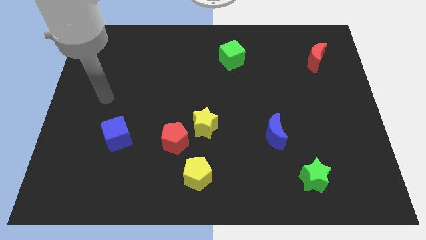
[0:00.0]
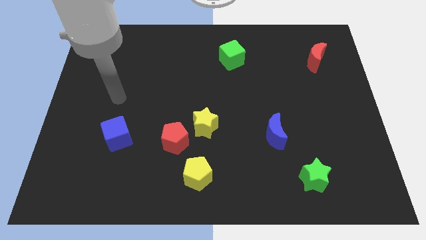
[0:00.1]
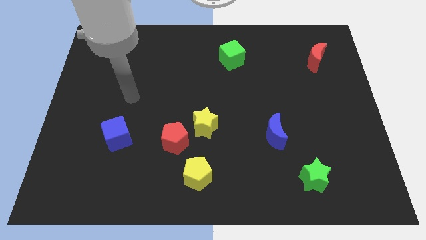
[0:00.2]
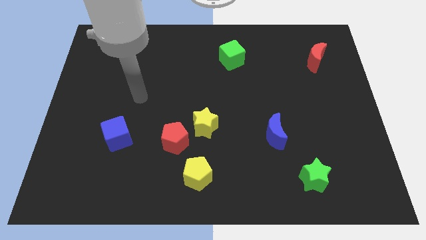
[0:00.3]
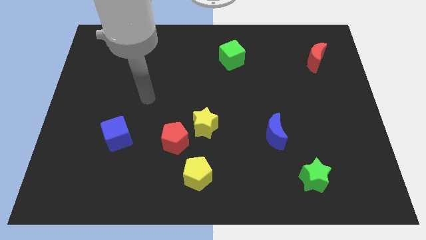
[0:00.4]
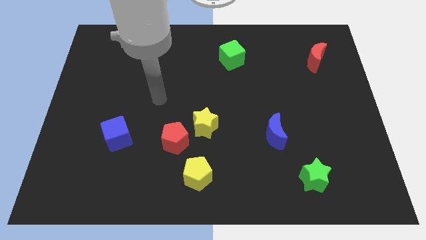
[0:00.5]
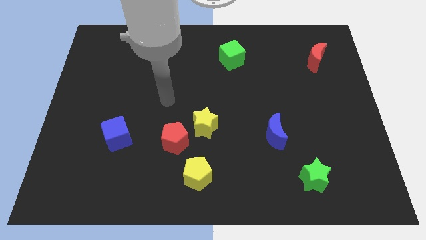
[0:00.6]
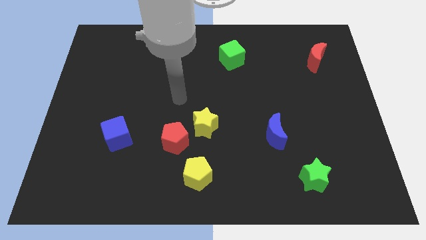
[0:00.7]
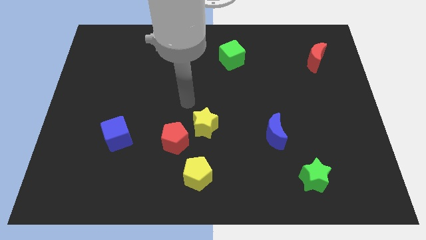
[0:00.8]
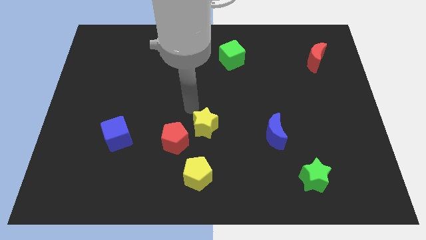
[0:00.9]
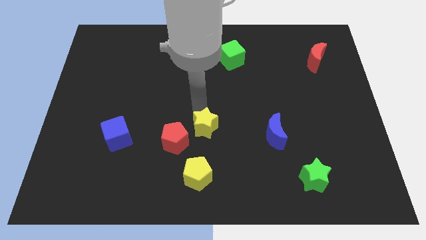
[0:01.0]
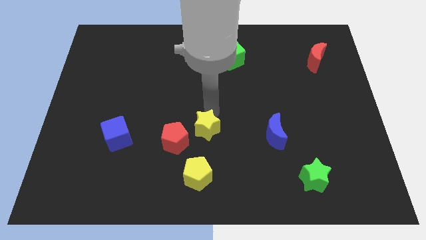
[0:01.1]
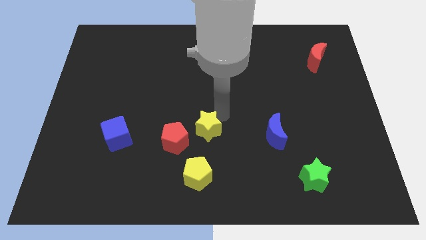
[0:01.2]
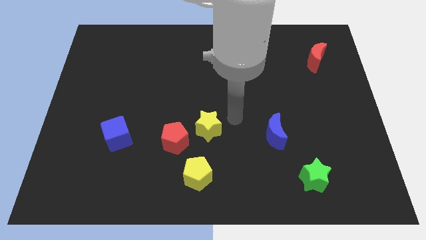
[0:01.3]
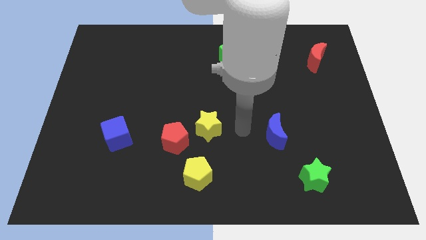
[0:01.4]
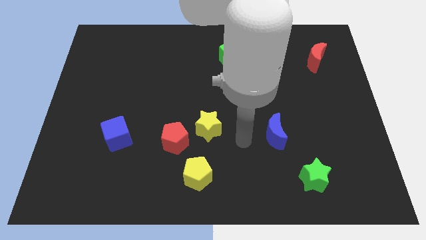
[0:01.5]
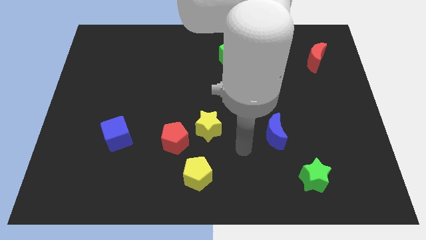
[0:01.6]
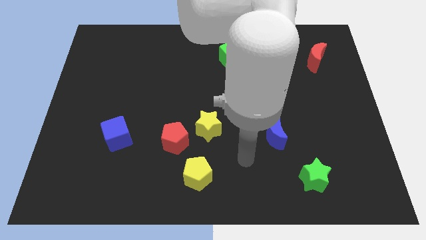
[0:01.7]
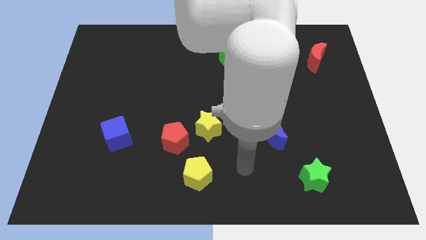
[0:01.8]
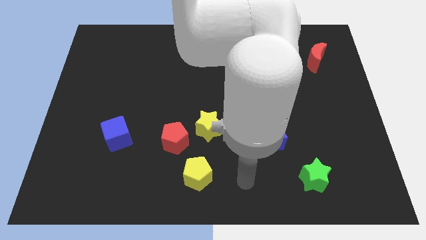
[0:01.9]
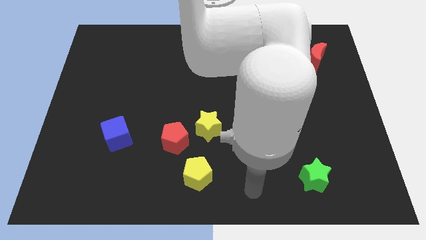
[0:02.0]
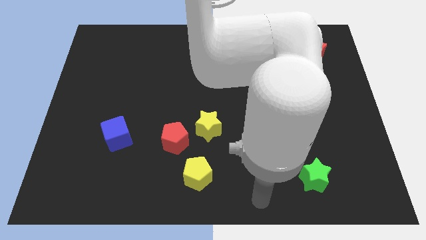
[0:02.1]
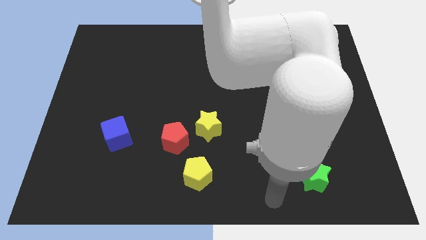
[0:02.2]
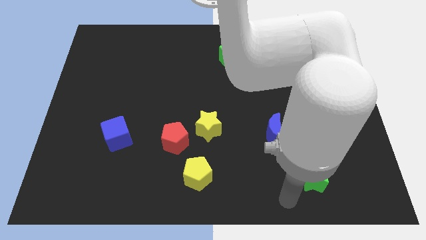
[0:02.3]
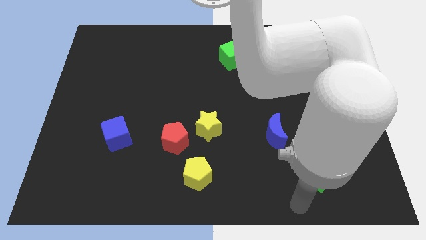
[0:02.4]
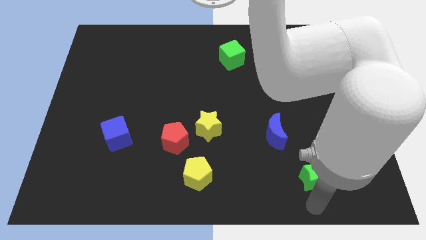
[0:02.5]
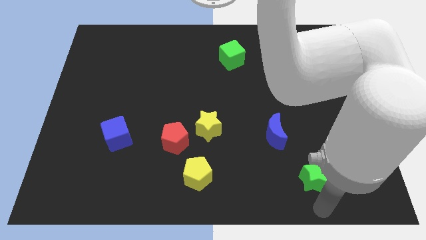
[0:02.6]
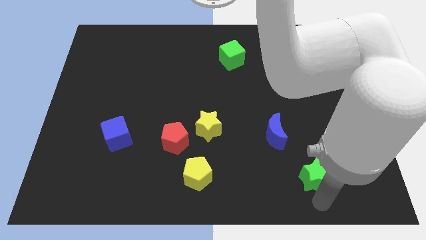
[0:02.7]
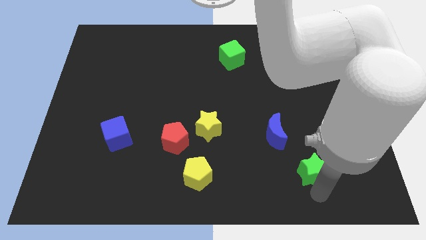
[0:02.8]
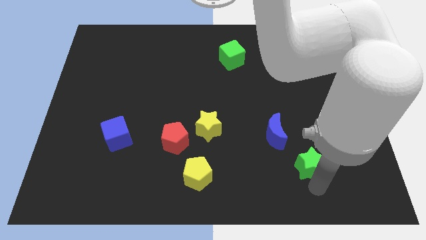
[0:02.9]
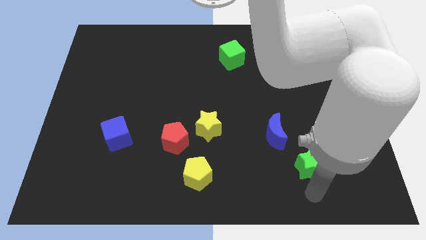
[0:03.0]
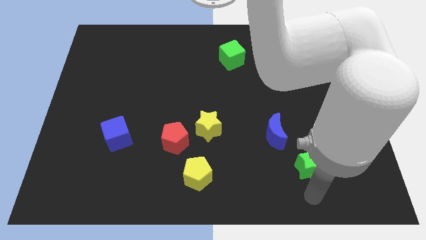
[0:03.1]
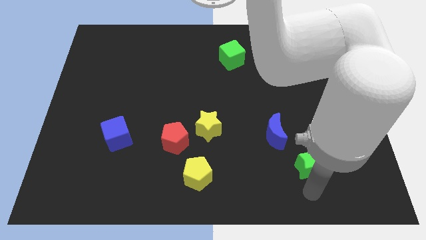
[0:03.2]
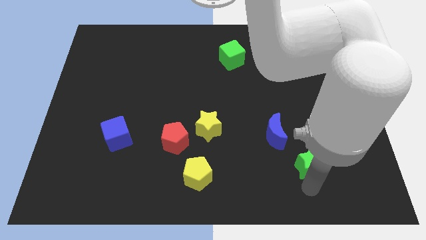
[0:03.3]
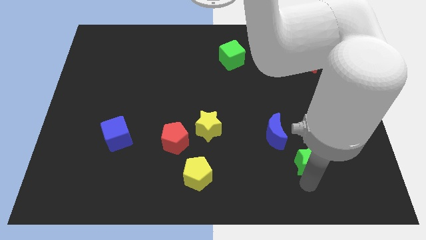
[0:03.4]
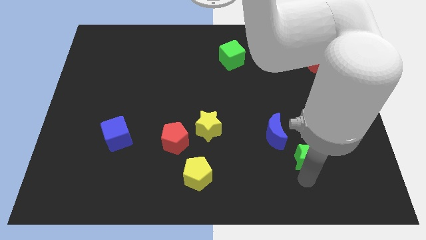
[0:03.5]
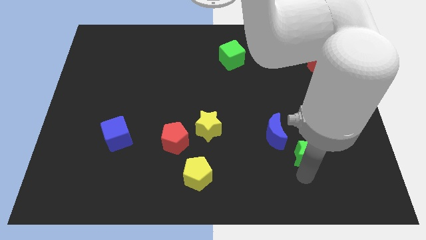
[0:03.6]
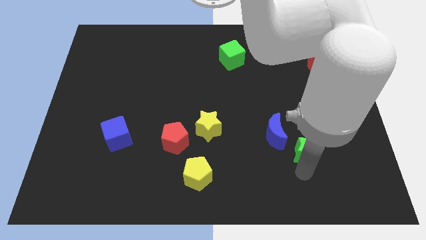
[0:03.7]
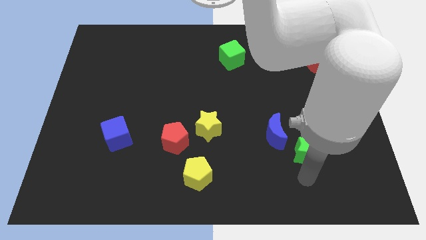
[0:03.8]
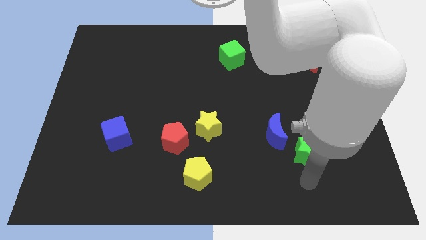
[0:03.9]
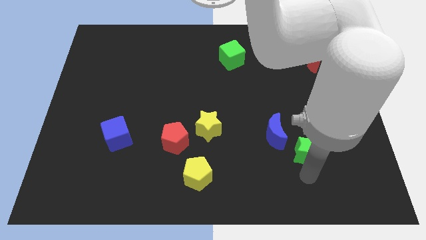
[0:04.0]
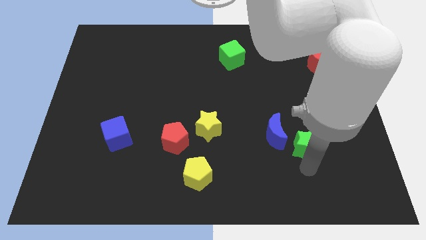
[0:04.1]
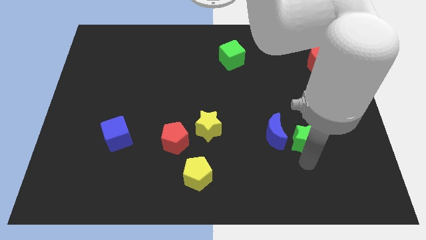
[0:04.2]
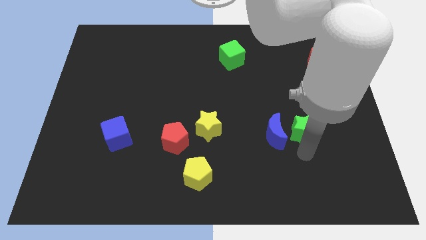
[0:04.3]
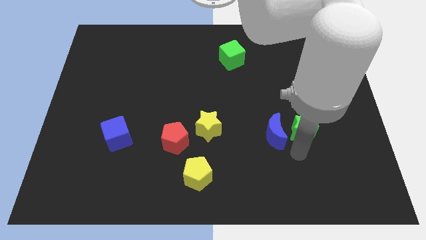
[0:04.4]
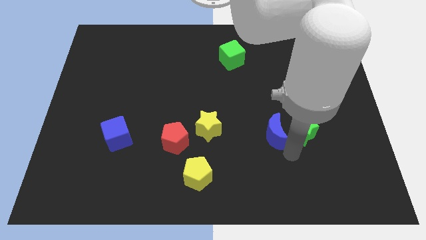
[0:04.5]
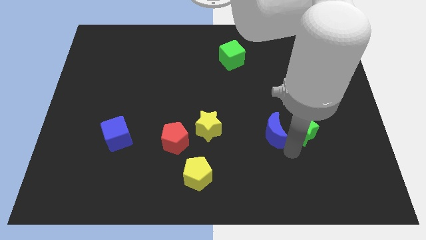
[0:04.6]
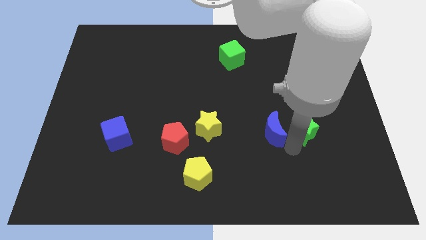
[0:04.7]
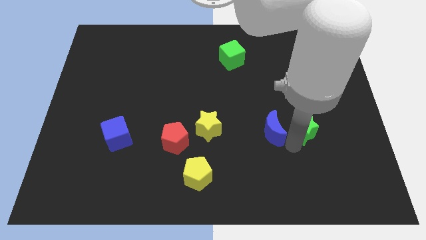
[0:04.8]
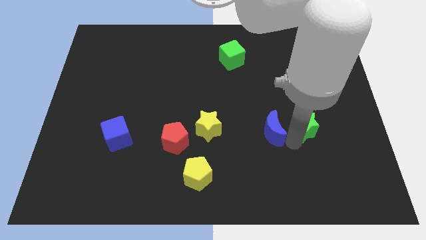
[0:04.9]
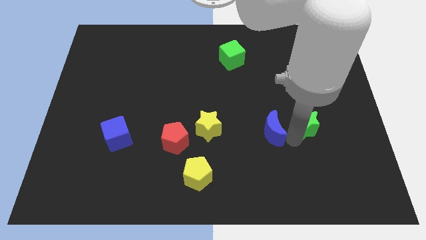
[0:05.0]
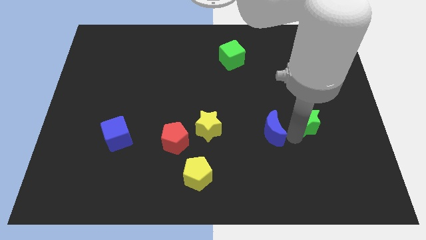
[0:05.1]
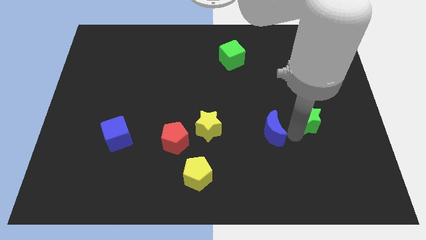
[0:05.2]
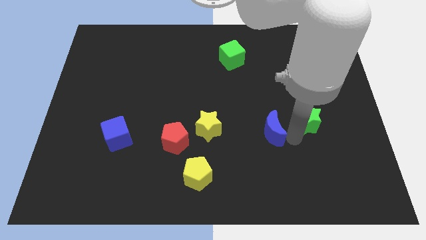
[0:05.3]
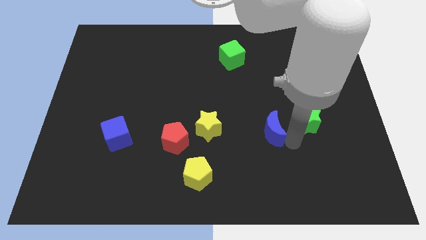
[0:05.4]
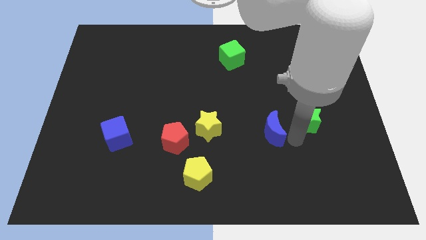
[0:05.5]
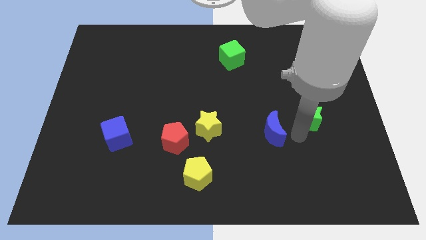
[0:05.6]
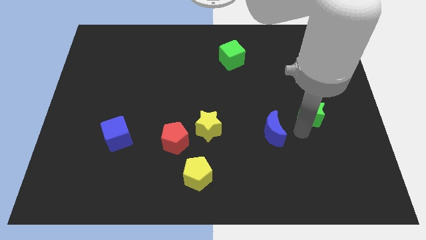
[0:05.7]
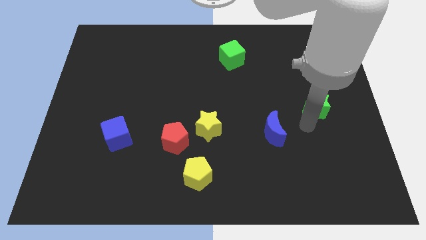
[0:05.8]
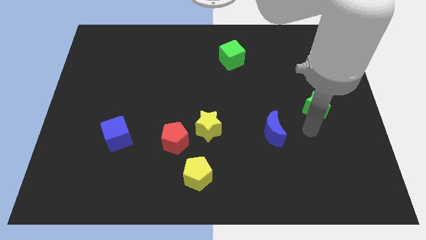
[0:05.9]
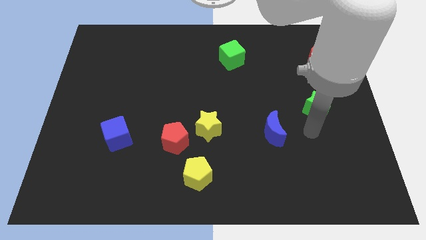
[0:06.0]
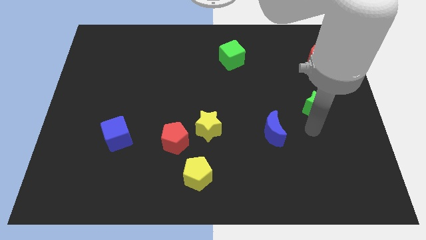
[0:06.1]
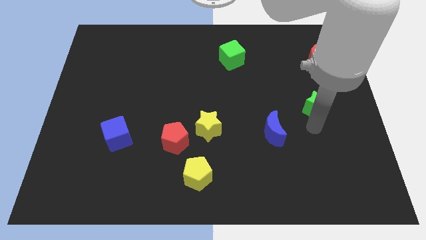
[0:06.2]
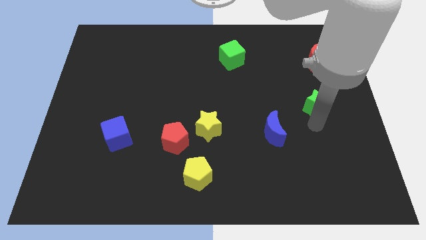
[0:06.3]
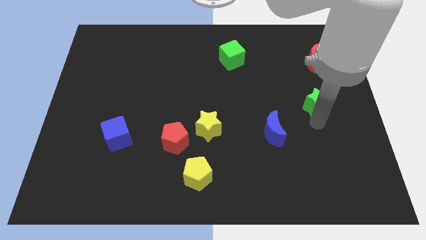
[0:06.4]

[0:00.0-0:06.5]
push the green star to the bottom of the red moon
